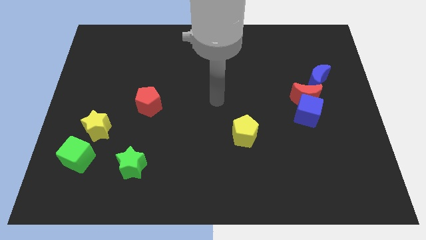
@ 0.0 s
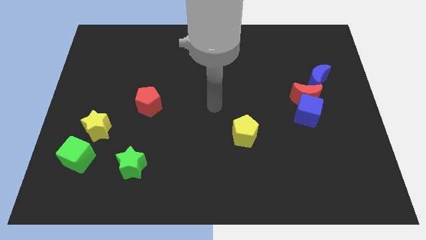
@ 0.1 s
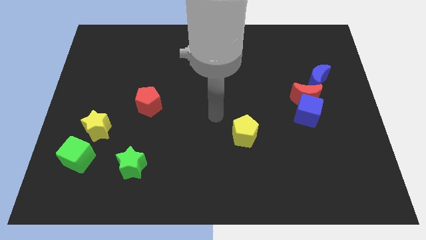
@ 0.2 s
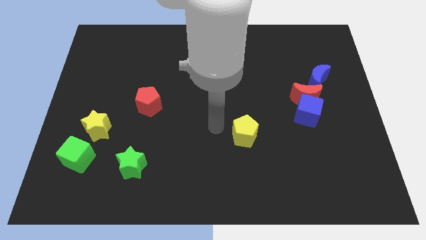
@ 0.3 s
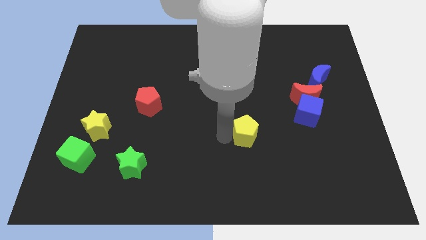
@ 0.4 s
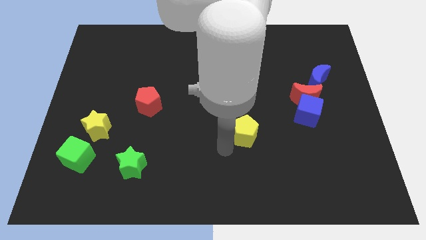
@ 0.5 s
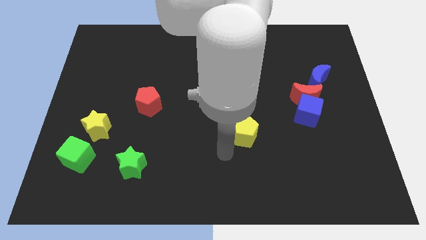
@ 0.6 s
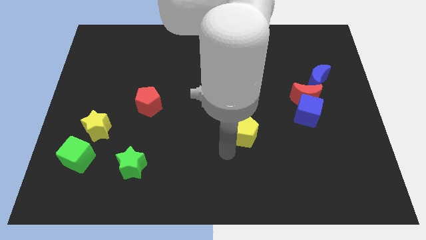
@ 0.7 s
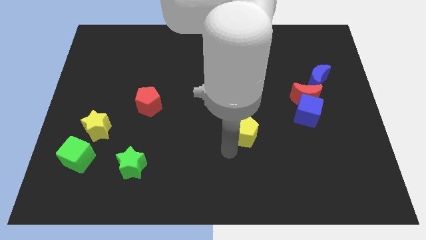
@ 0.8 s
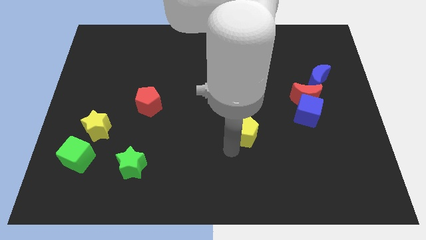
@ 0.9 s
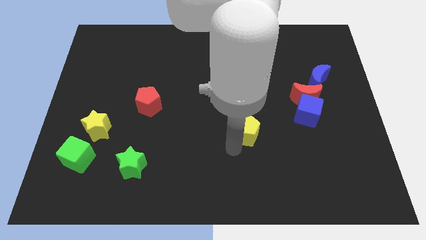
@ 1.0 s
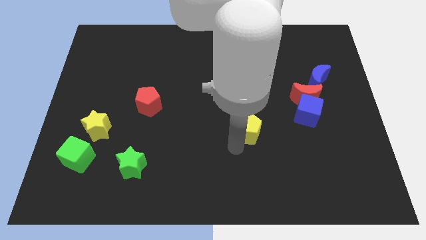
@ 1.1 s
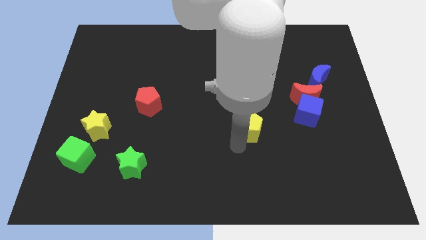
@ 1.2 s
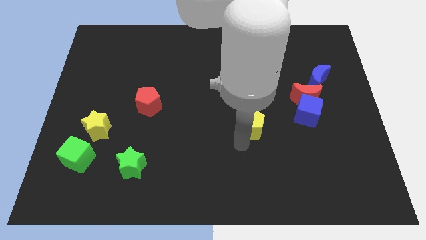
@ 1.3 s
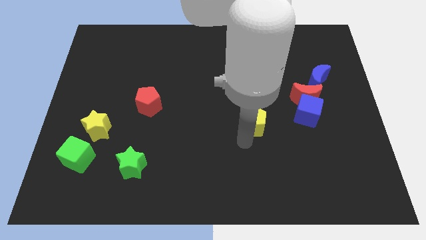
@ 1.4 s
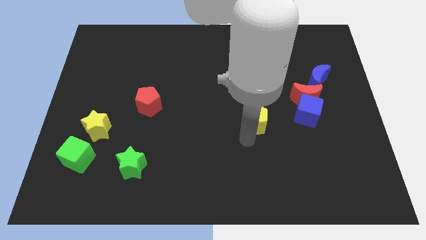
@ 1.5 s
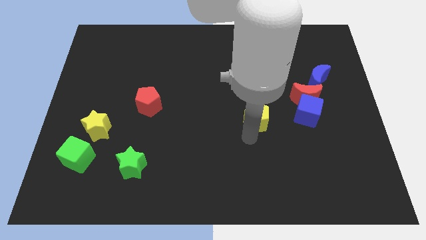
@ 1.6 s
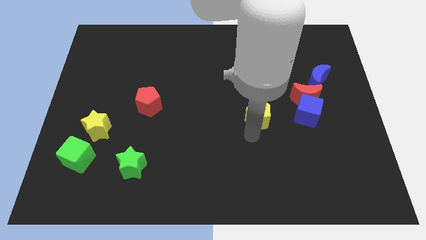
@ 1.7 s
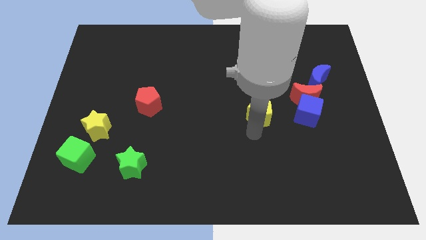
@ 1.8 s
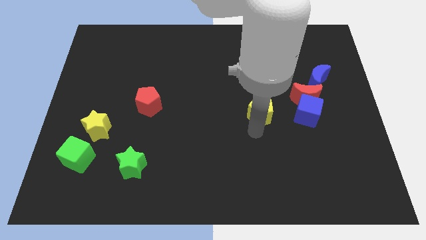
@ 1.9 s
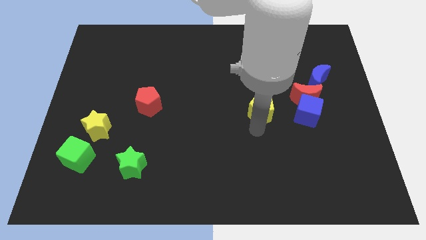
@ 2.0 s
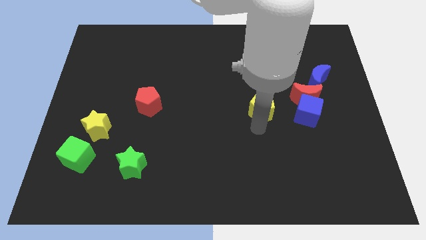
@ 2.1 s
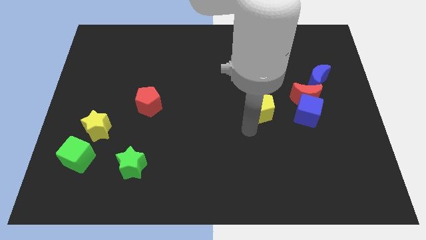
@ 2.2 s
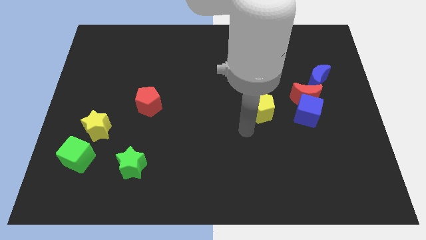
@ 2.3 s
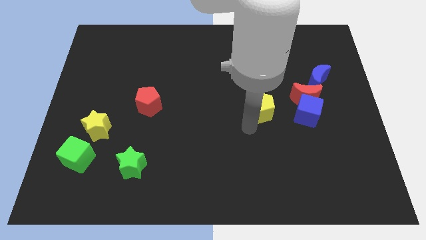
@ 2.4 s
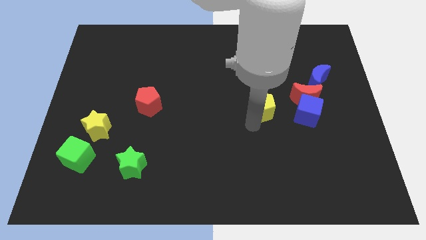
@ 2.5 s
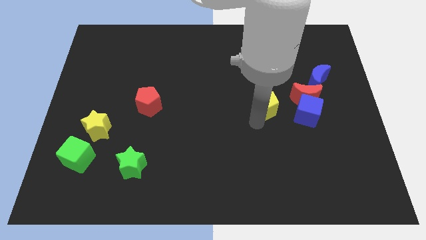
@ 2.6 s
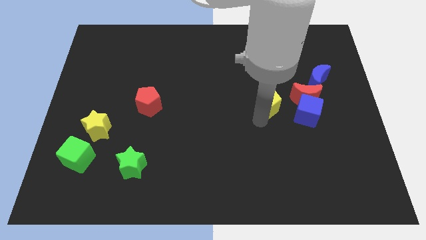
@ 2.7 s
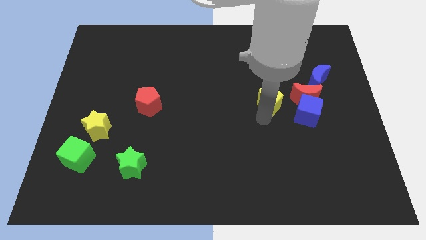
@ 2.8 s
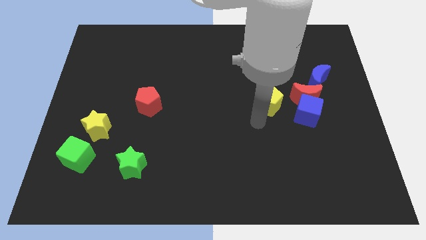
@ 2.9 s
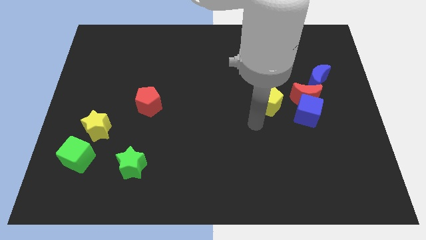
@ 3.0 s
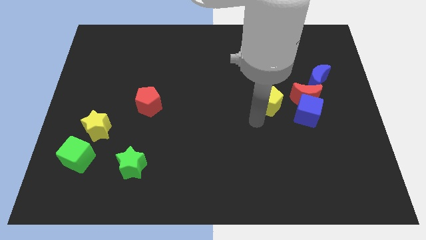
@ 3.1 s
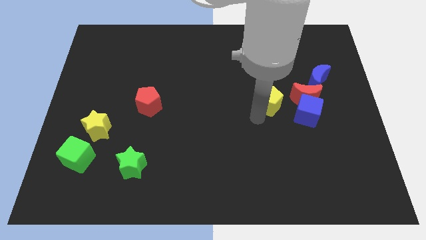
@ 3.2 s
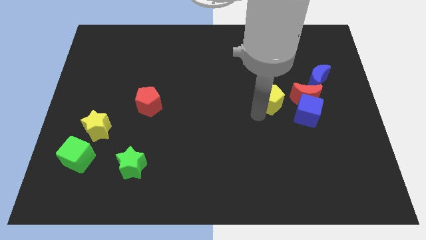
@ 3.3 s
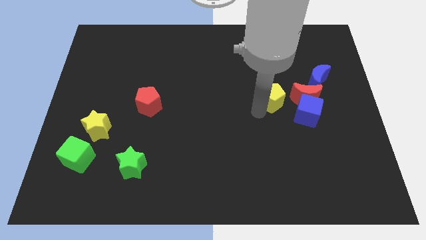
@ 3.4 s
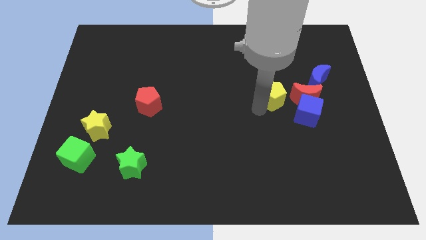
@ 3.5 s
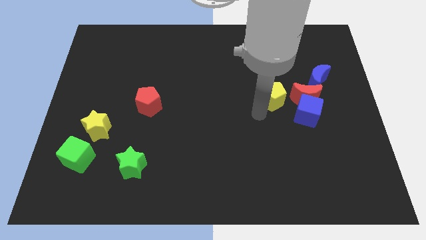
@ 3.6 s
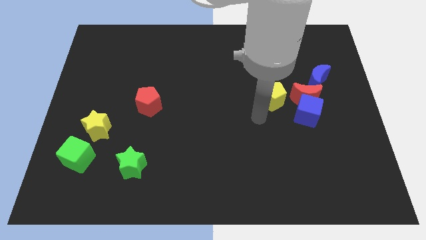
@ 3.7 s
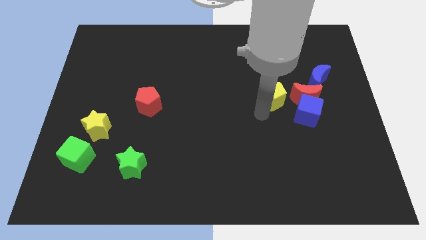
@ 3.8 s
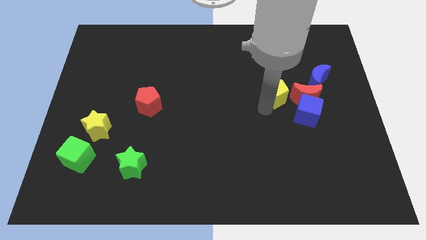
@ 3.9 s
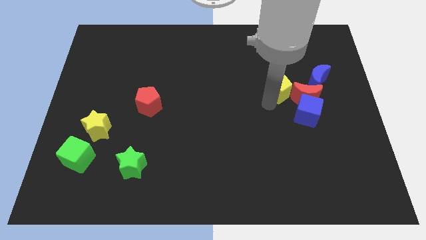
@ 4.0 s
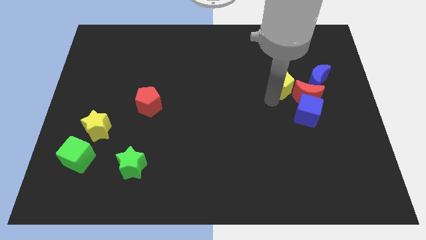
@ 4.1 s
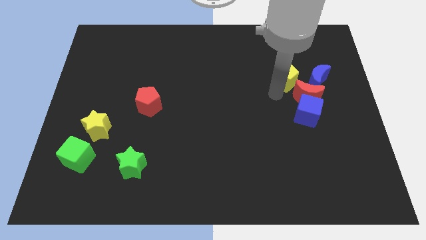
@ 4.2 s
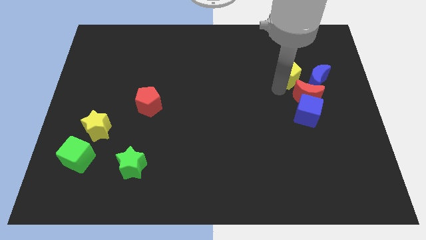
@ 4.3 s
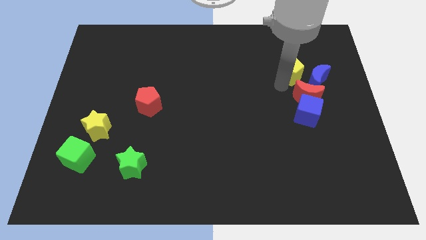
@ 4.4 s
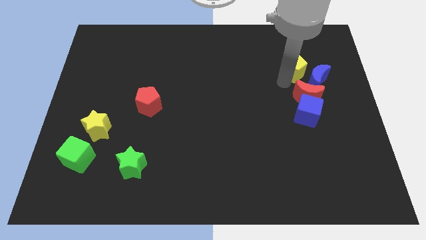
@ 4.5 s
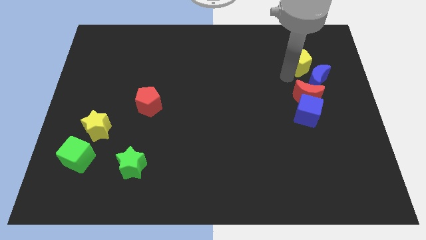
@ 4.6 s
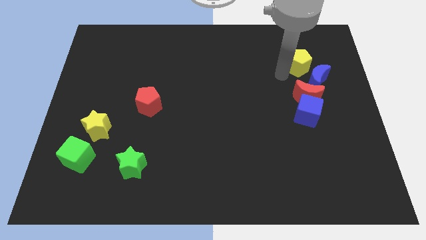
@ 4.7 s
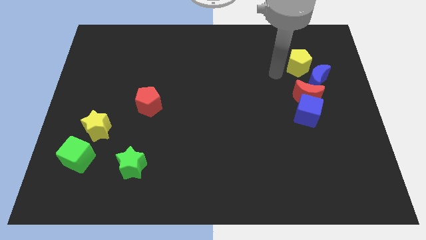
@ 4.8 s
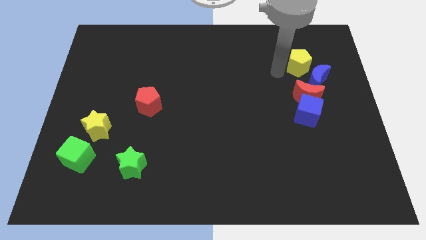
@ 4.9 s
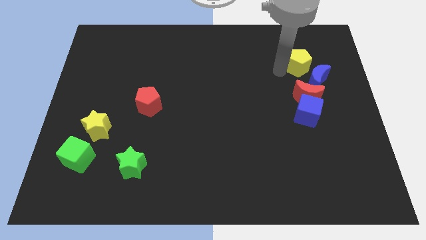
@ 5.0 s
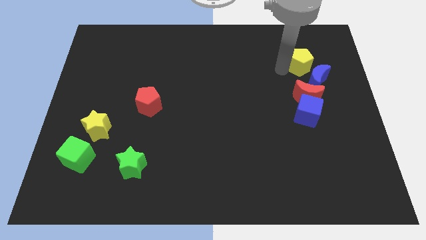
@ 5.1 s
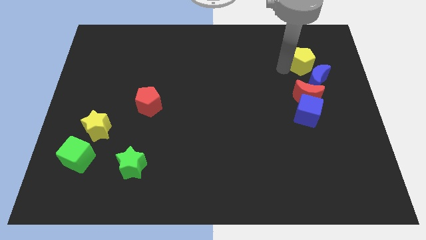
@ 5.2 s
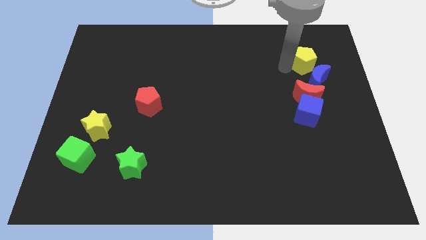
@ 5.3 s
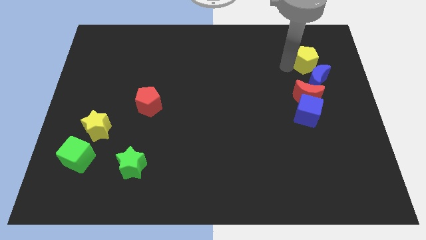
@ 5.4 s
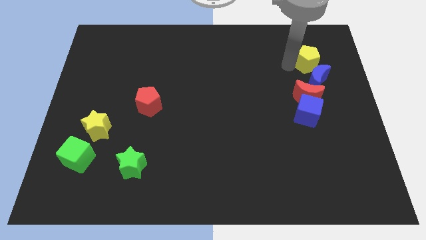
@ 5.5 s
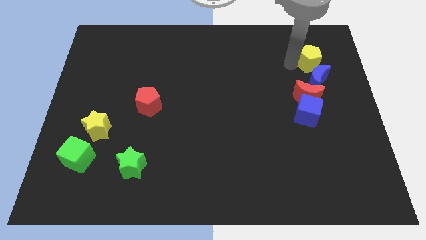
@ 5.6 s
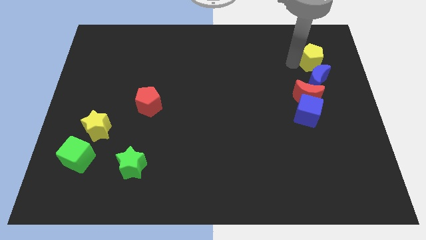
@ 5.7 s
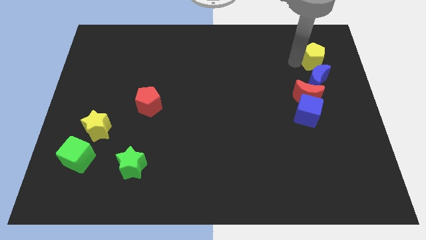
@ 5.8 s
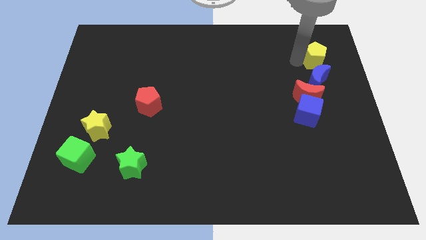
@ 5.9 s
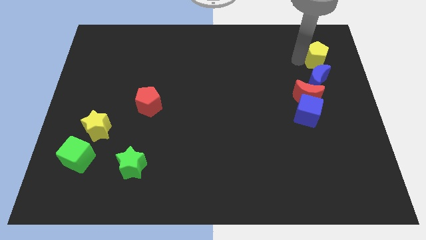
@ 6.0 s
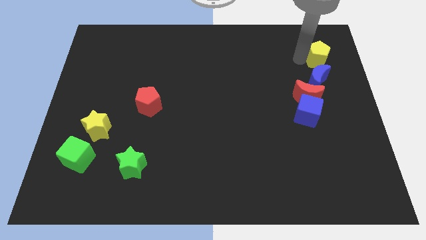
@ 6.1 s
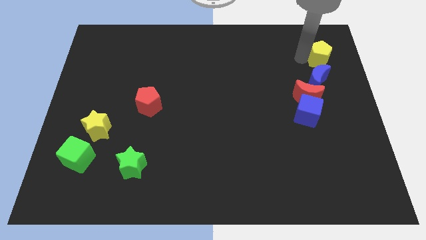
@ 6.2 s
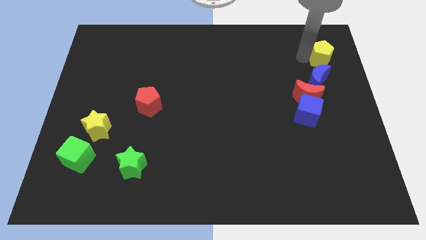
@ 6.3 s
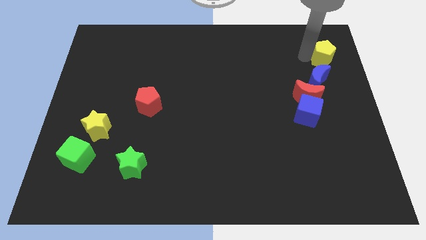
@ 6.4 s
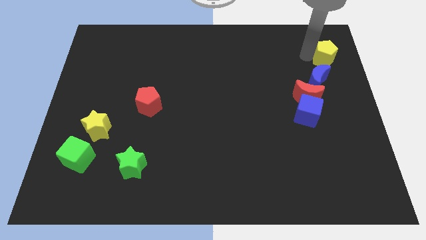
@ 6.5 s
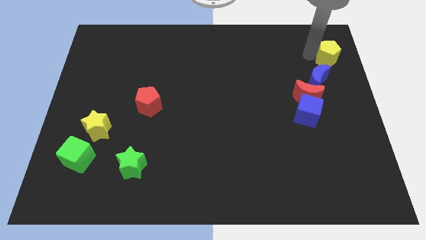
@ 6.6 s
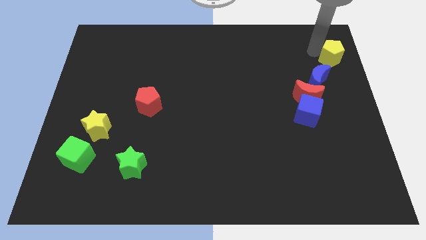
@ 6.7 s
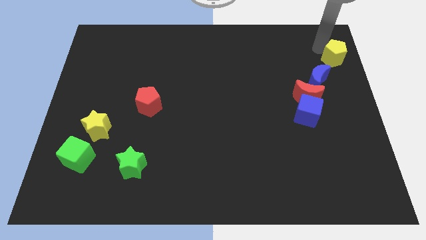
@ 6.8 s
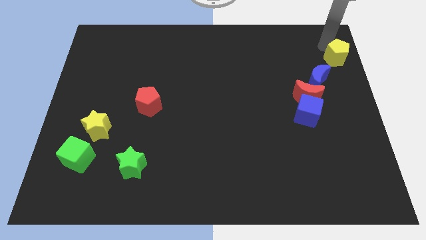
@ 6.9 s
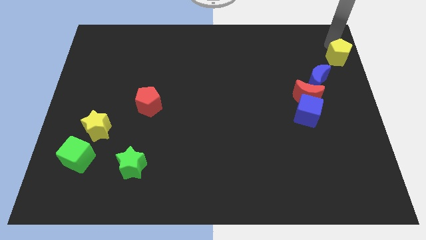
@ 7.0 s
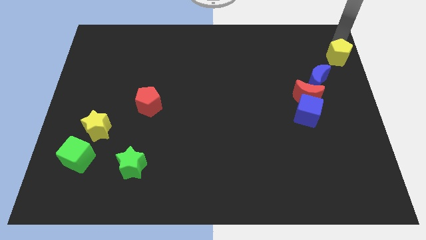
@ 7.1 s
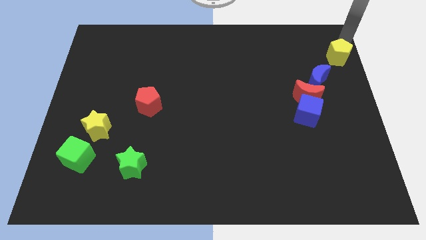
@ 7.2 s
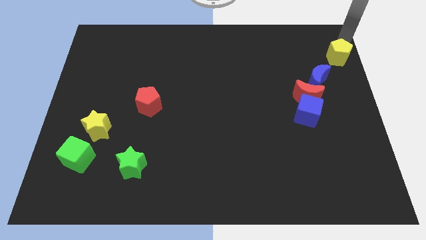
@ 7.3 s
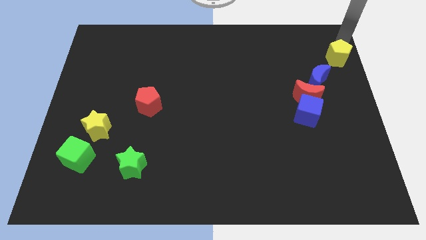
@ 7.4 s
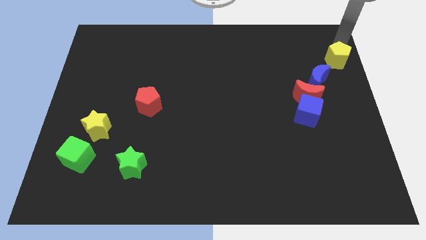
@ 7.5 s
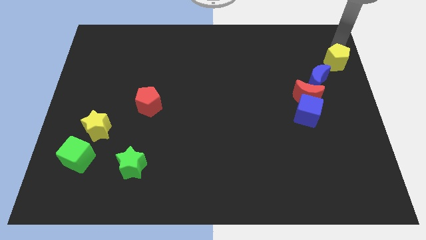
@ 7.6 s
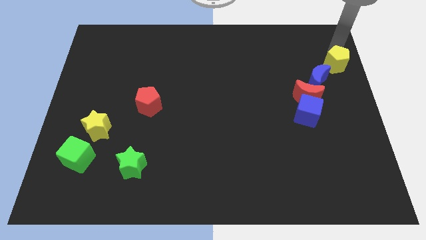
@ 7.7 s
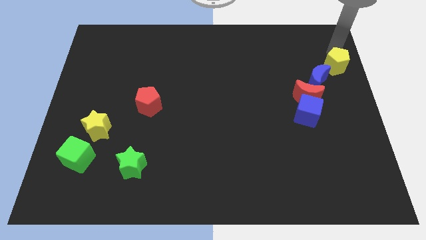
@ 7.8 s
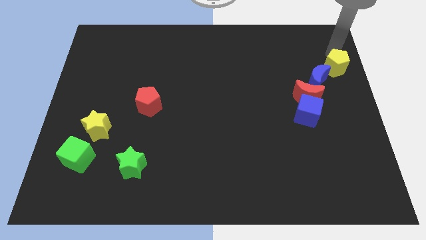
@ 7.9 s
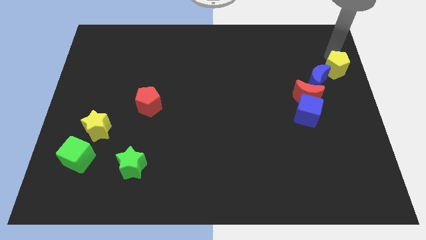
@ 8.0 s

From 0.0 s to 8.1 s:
move the yellow pentagon to the top right of the red moon
